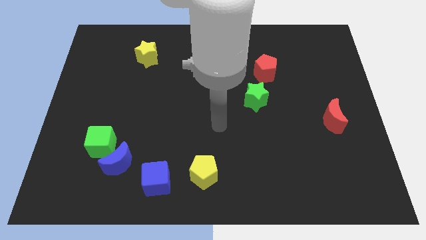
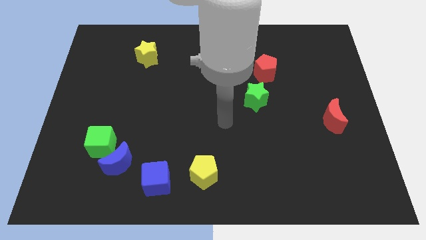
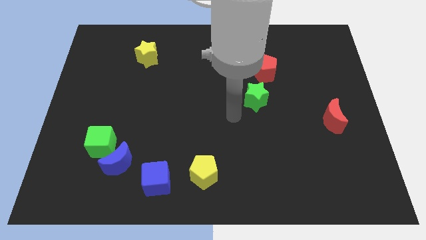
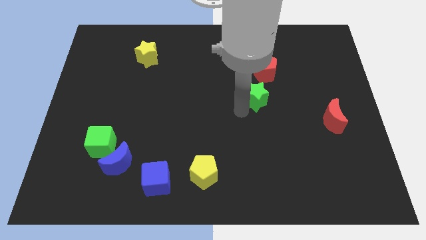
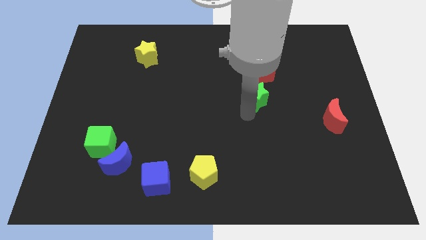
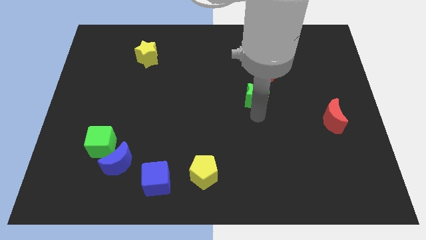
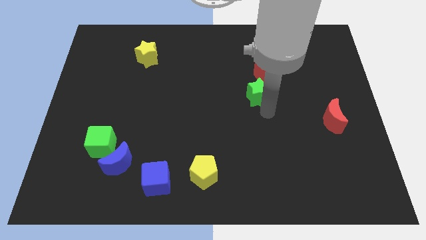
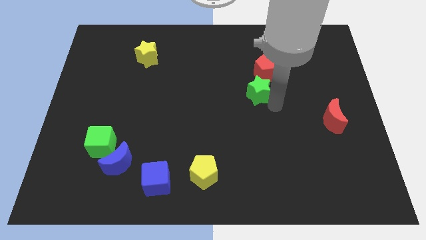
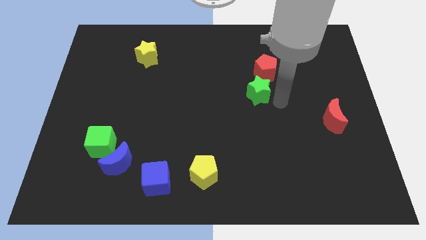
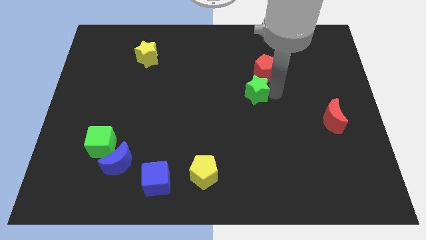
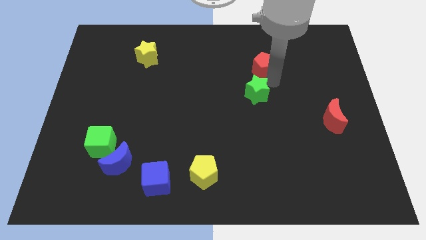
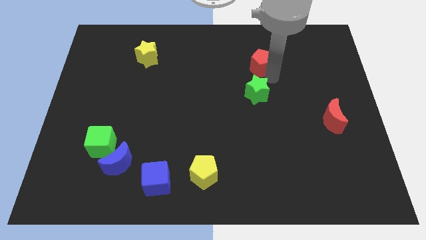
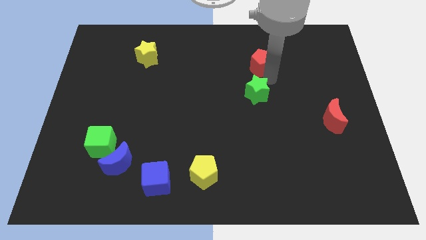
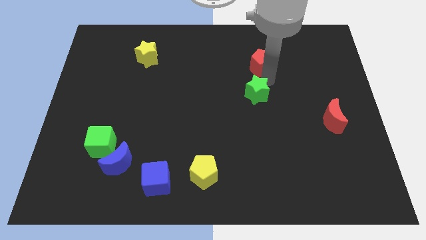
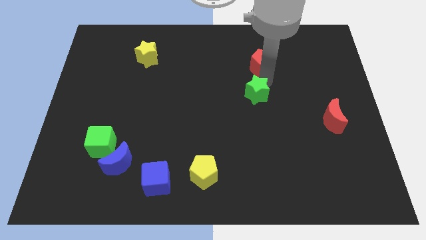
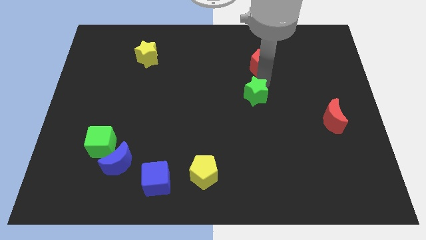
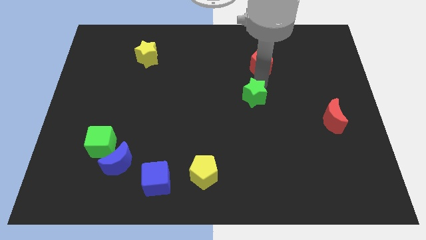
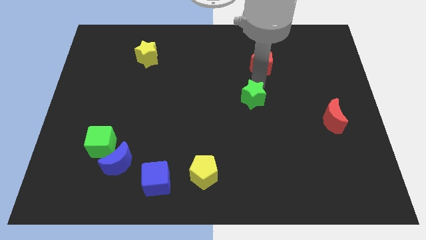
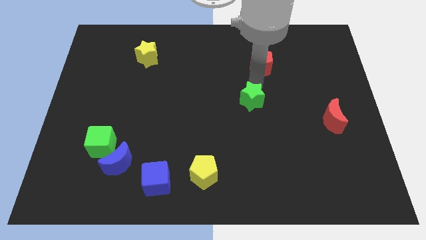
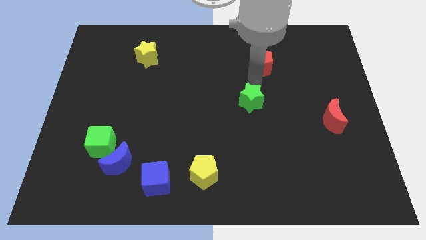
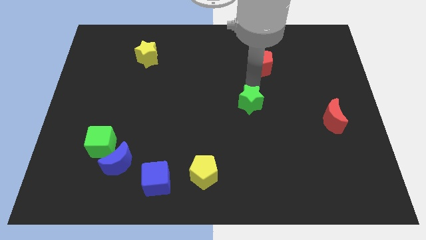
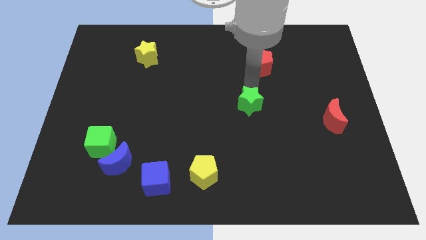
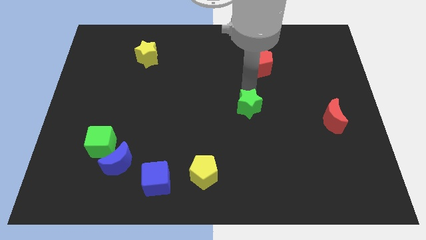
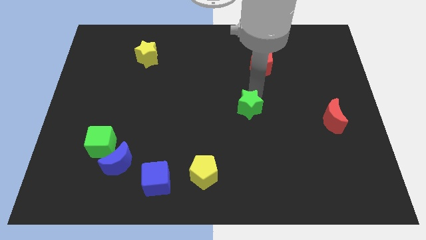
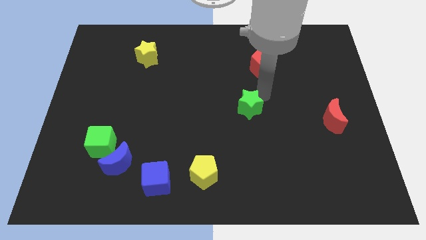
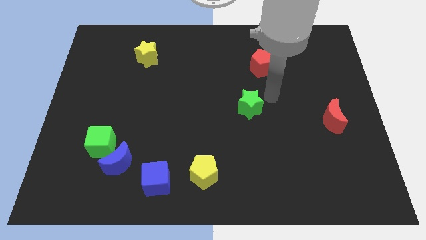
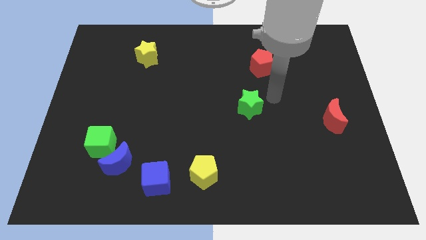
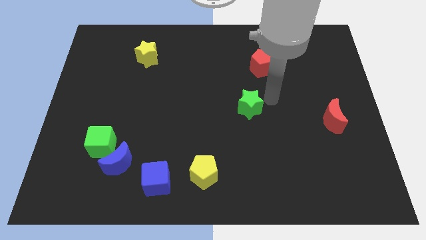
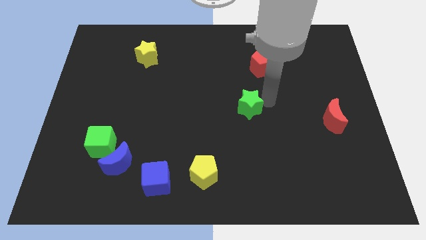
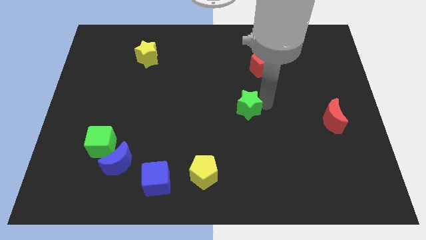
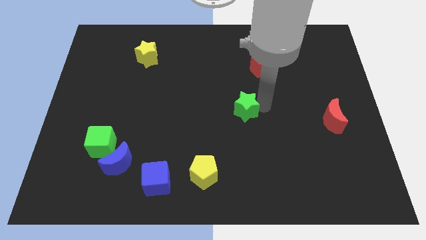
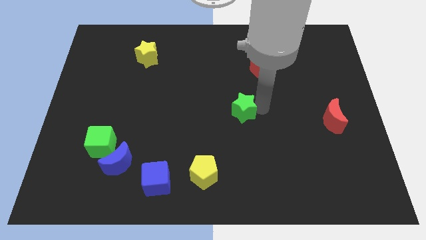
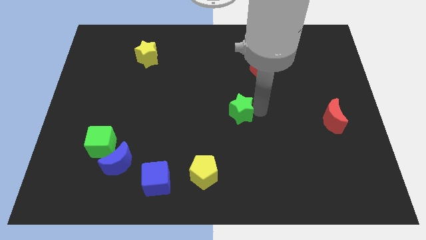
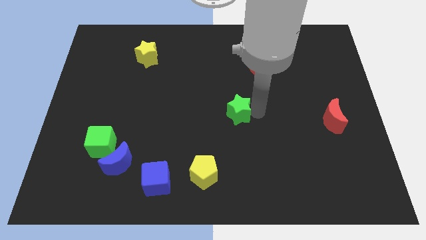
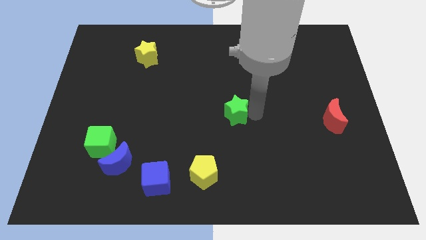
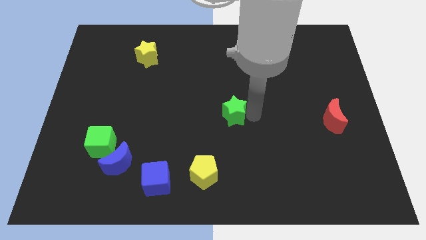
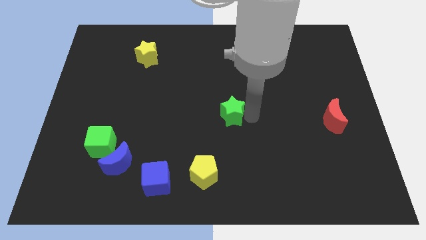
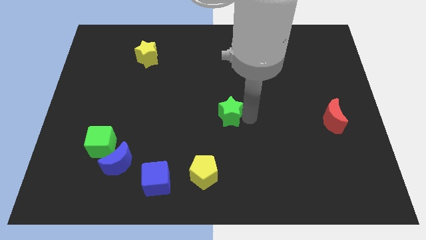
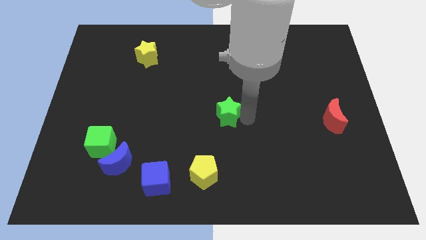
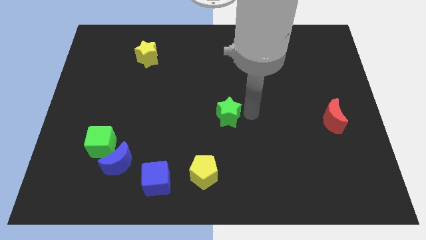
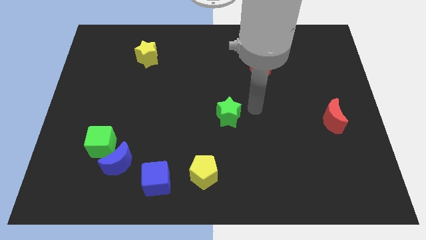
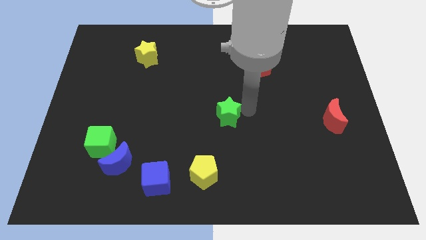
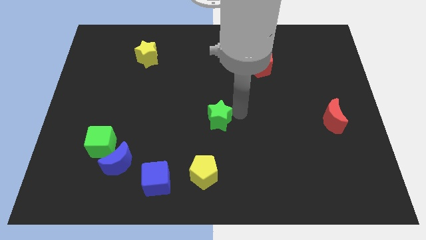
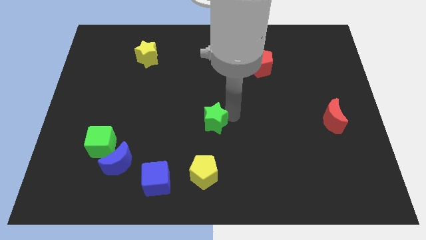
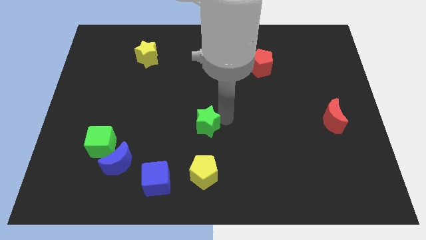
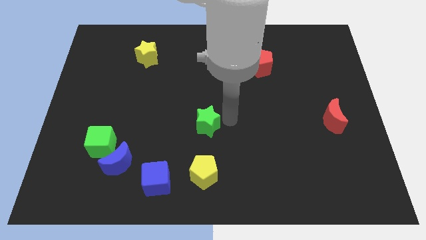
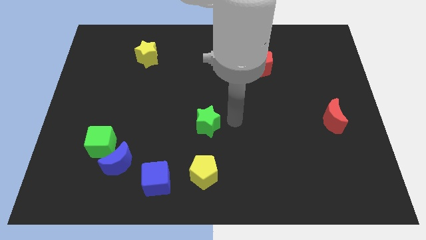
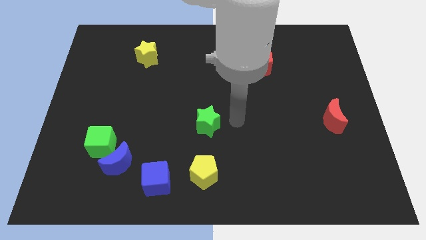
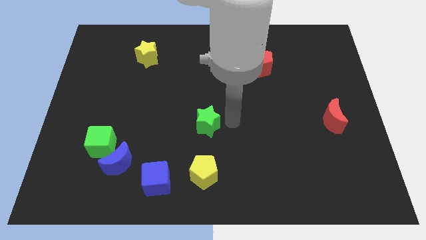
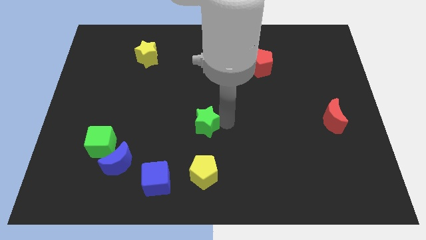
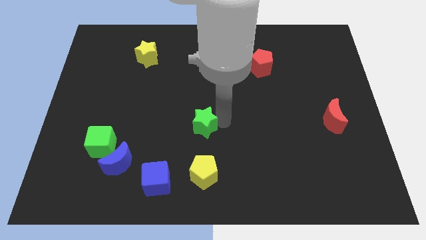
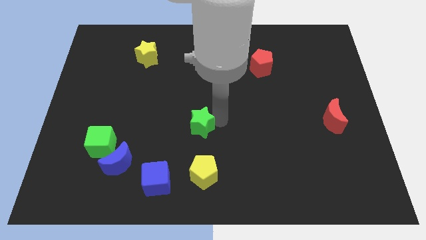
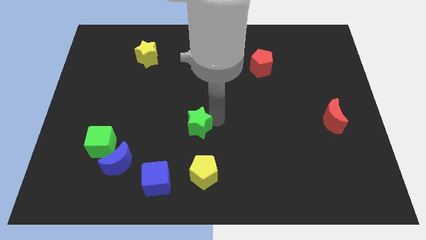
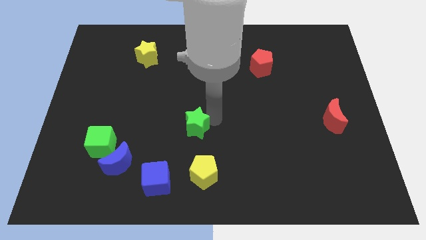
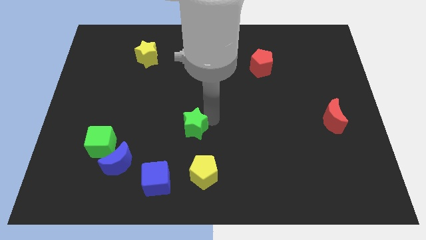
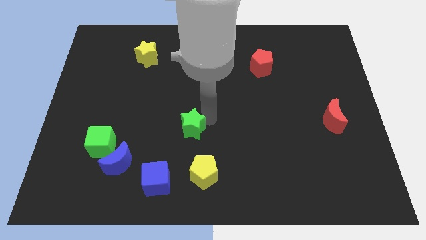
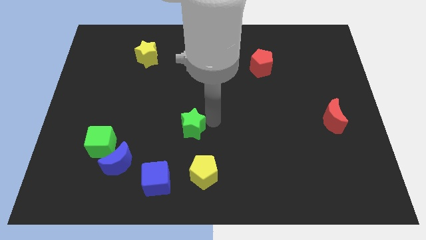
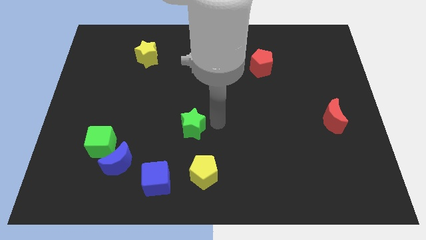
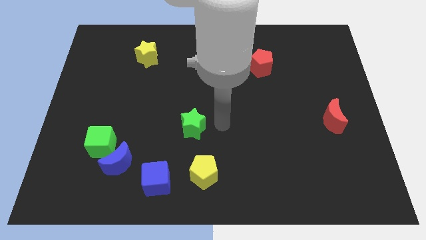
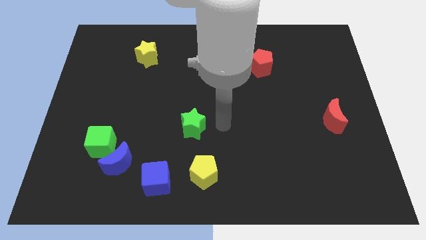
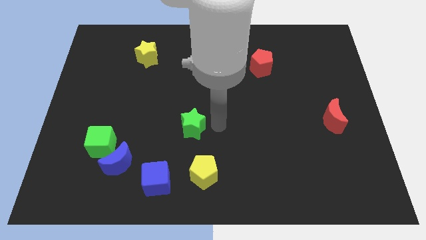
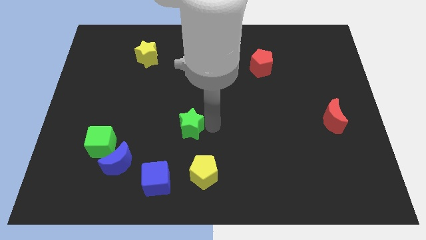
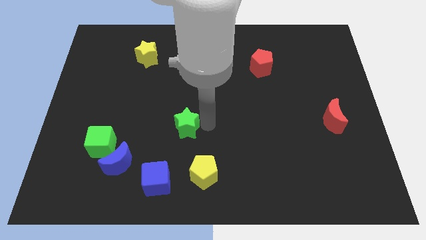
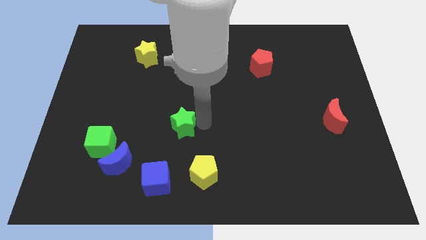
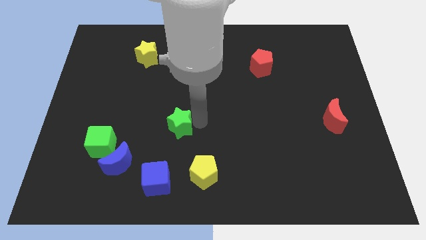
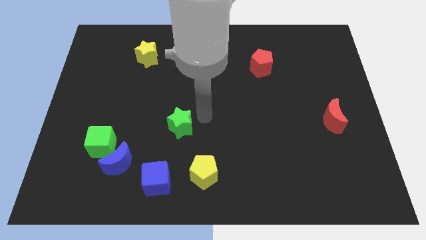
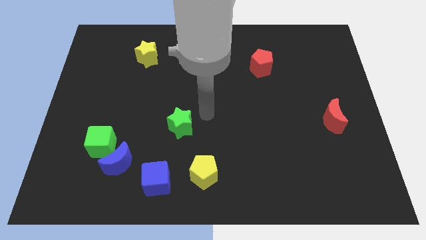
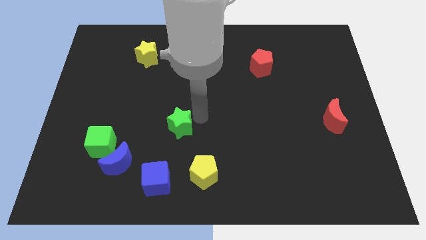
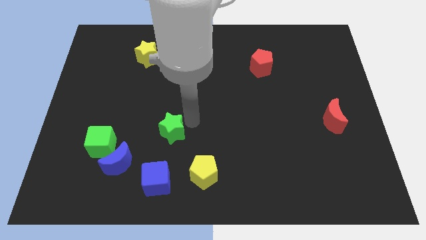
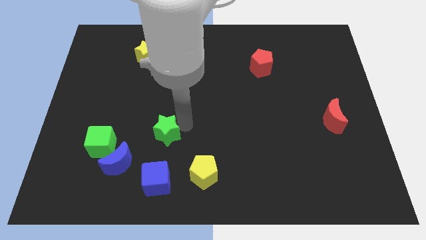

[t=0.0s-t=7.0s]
push the green star to the top right of the blue moon
